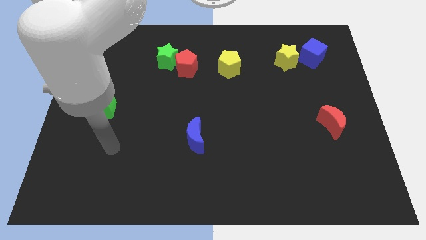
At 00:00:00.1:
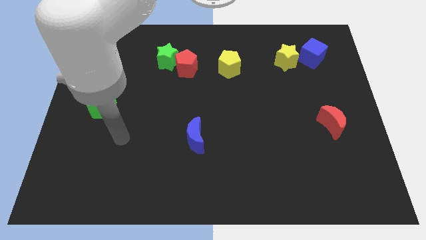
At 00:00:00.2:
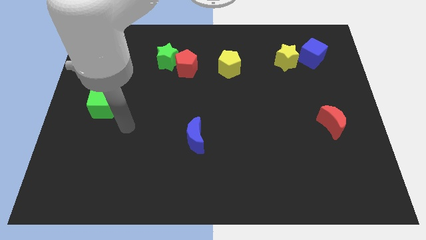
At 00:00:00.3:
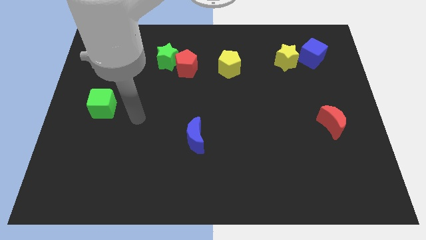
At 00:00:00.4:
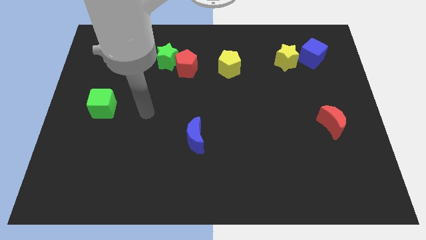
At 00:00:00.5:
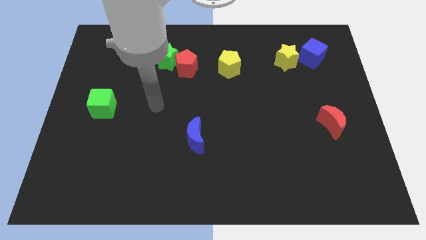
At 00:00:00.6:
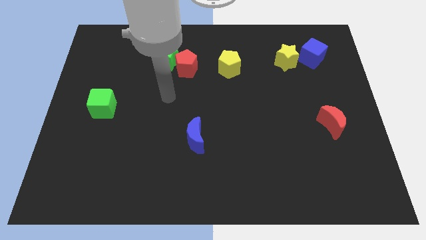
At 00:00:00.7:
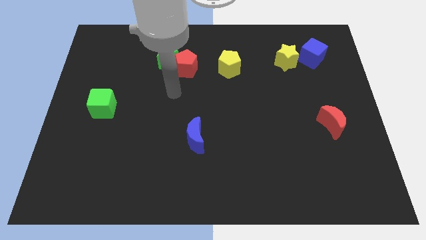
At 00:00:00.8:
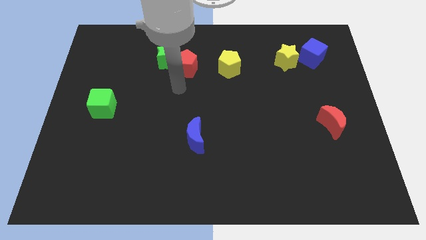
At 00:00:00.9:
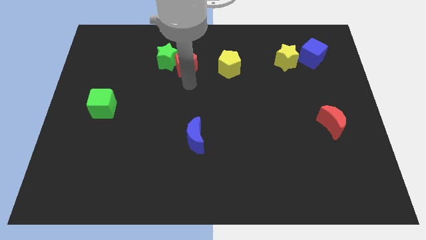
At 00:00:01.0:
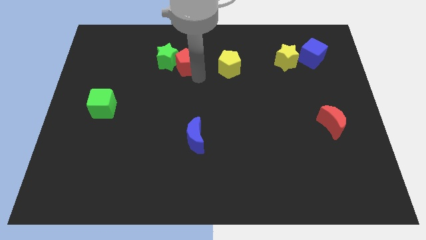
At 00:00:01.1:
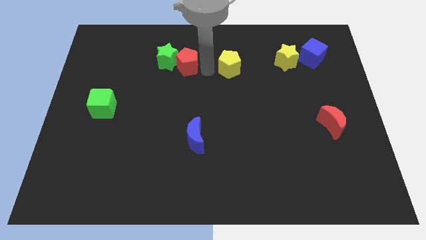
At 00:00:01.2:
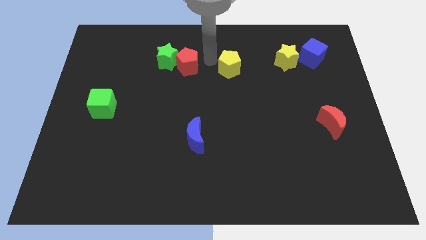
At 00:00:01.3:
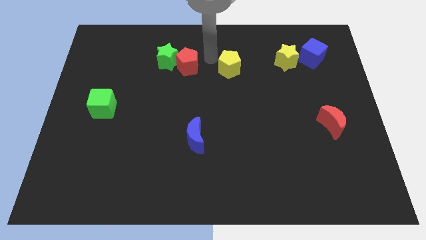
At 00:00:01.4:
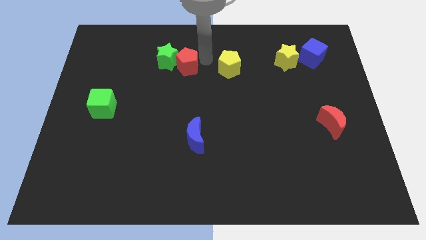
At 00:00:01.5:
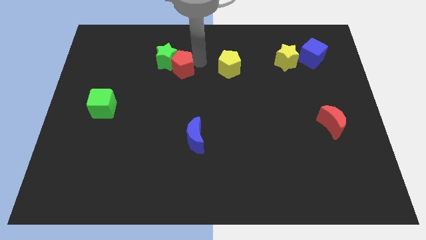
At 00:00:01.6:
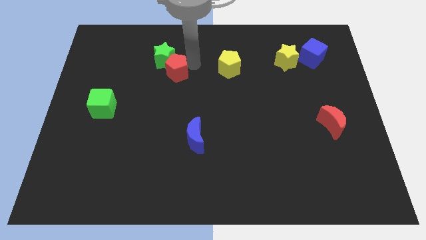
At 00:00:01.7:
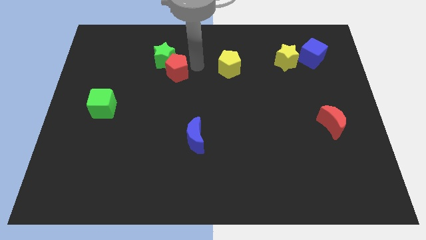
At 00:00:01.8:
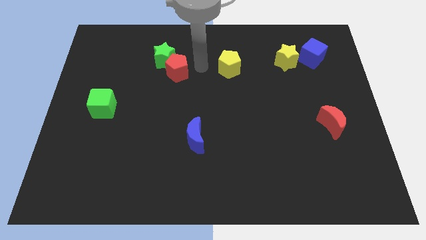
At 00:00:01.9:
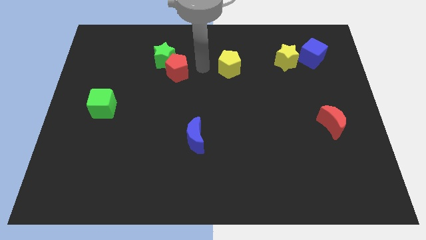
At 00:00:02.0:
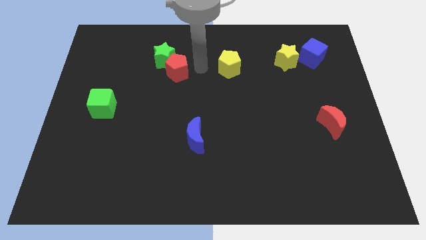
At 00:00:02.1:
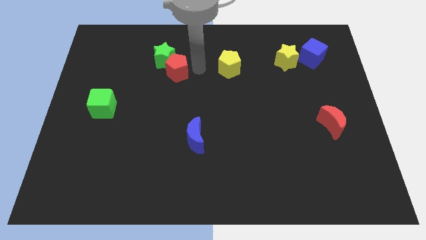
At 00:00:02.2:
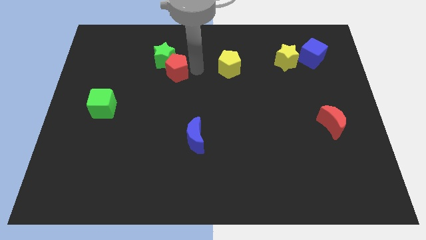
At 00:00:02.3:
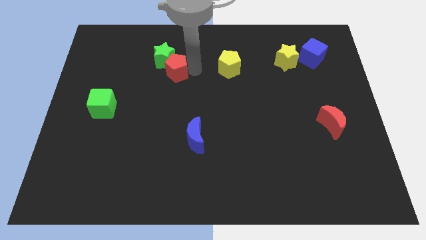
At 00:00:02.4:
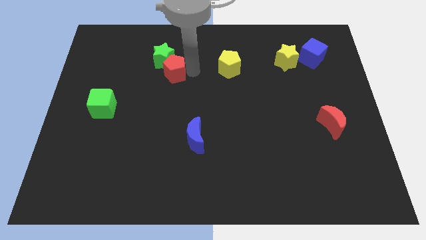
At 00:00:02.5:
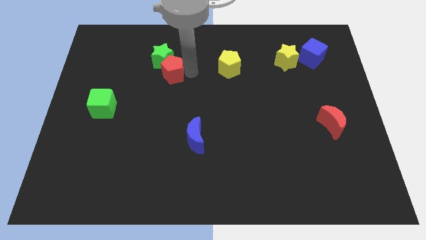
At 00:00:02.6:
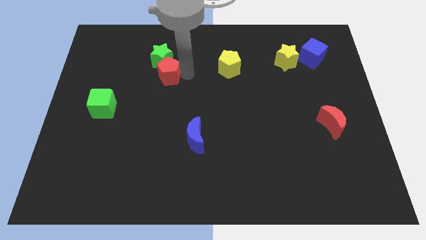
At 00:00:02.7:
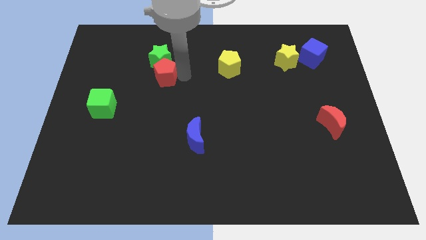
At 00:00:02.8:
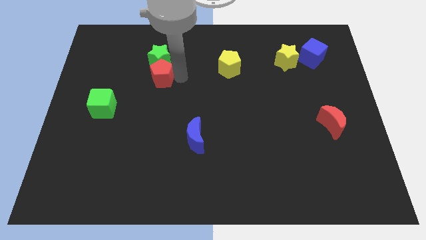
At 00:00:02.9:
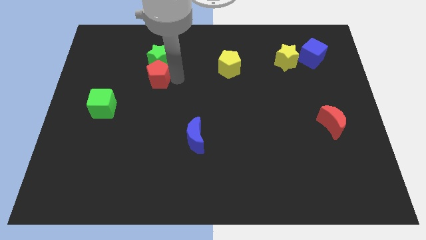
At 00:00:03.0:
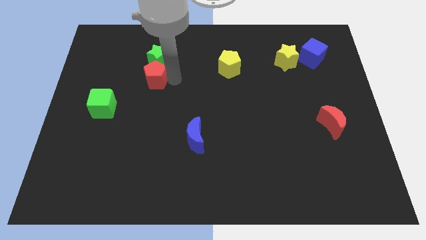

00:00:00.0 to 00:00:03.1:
slightly push the red pentagon to the left

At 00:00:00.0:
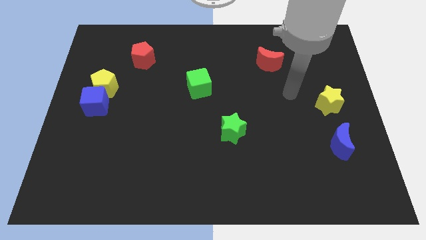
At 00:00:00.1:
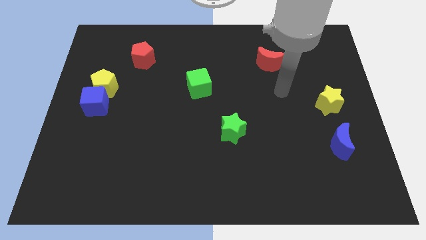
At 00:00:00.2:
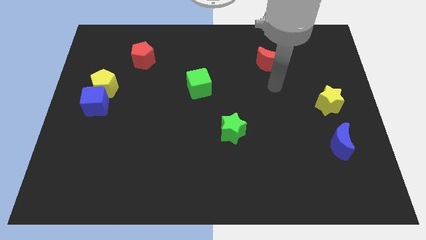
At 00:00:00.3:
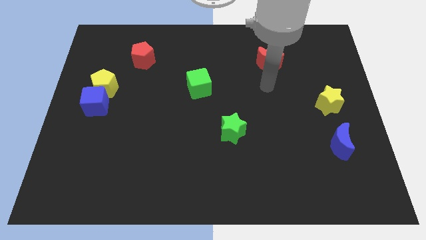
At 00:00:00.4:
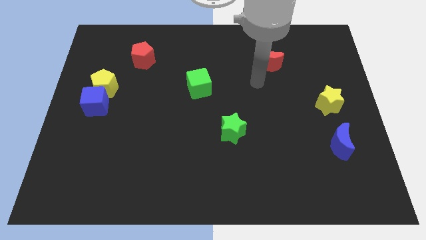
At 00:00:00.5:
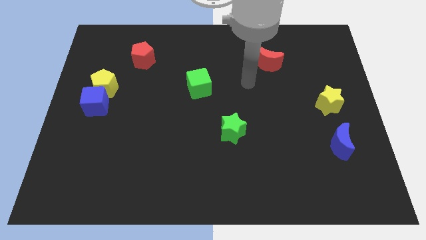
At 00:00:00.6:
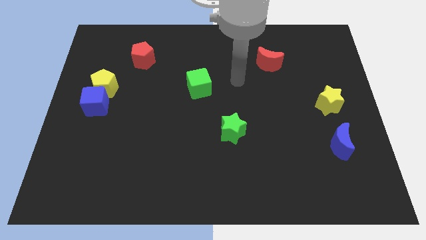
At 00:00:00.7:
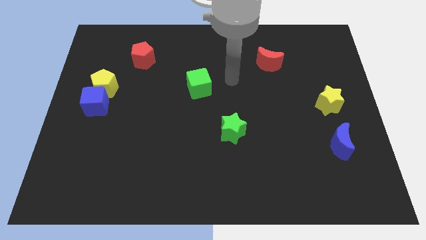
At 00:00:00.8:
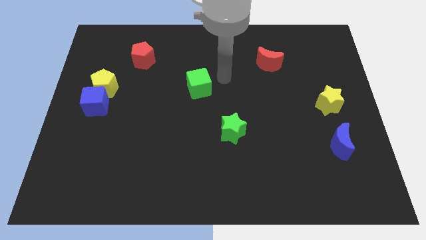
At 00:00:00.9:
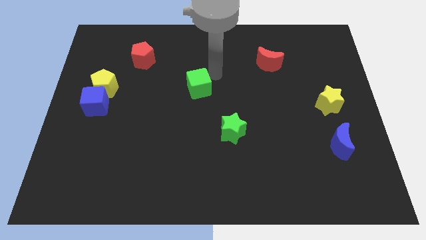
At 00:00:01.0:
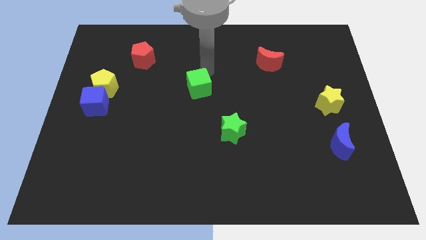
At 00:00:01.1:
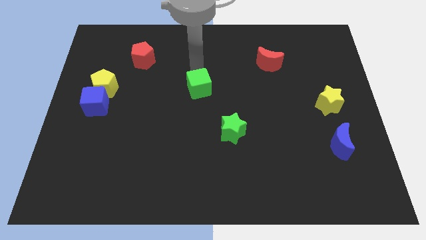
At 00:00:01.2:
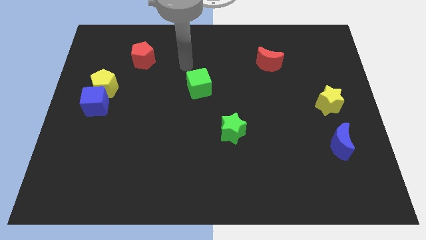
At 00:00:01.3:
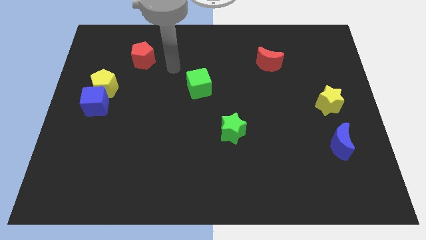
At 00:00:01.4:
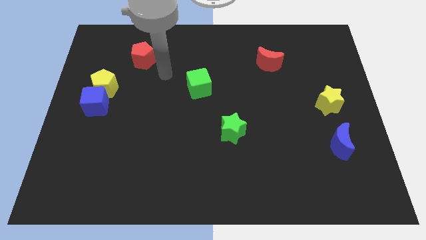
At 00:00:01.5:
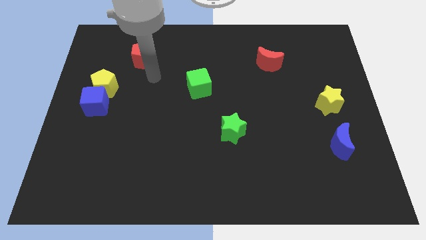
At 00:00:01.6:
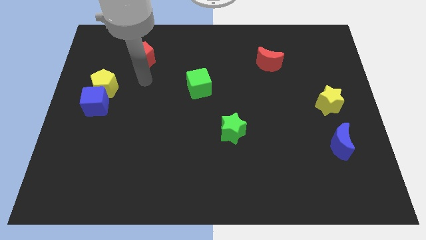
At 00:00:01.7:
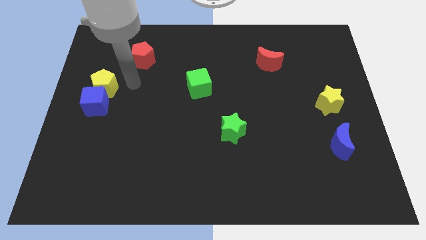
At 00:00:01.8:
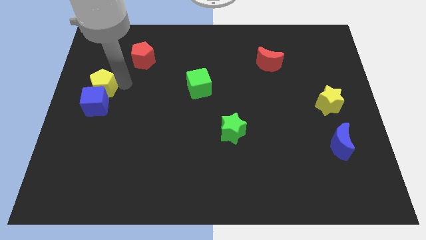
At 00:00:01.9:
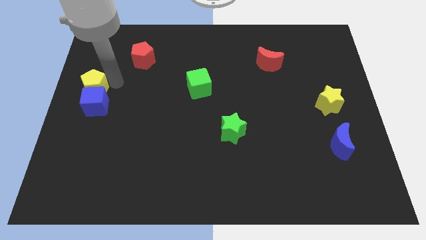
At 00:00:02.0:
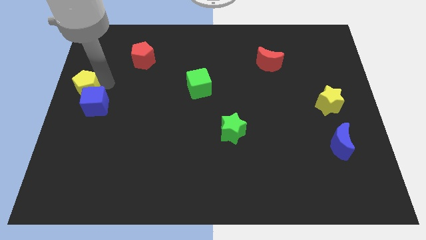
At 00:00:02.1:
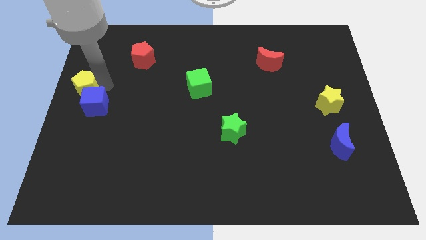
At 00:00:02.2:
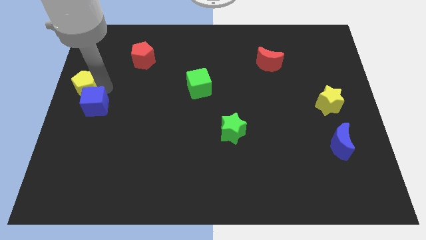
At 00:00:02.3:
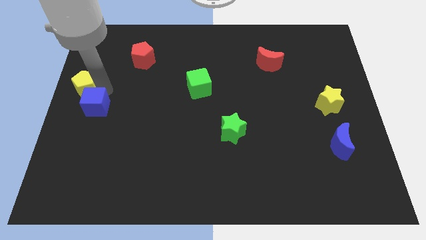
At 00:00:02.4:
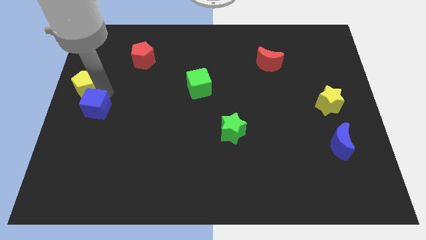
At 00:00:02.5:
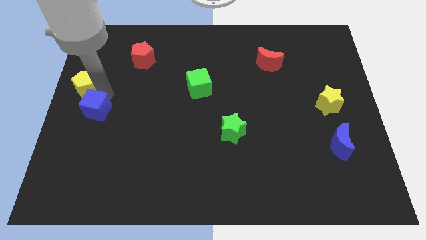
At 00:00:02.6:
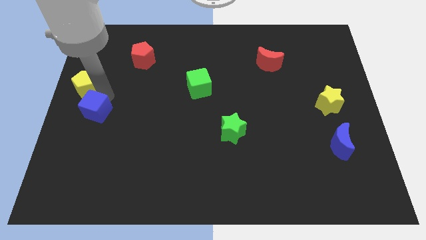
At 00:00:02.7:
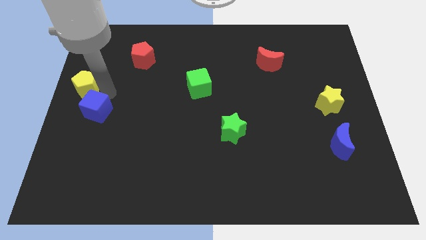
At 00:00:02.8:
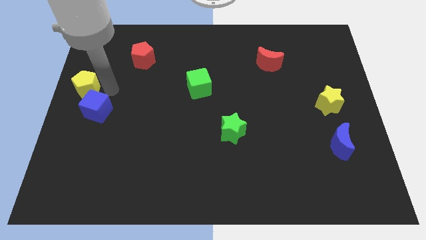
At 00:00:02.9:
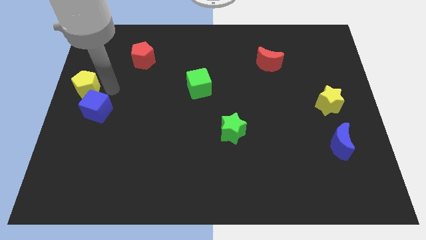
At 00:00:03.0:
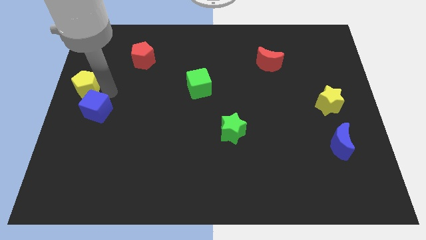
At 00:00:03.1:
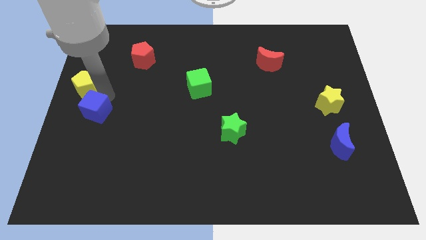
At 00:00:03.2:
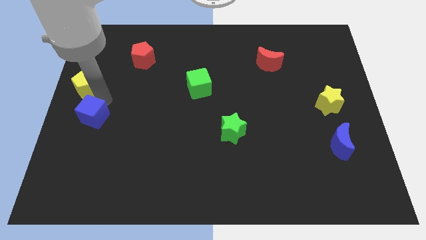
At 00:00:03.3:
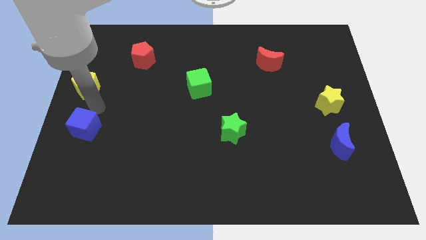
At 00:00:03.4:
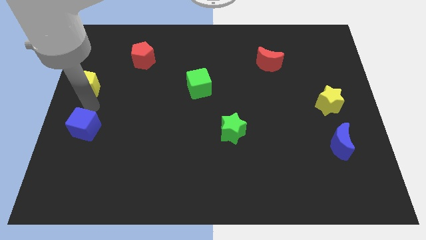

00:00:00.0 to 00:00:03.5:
slightly slide the blue cube downwards

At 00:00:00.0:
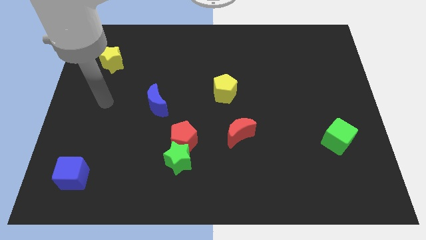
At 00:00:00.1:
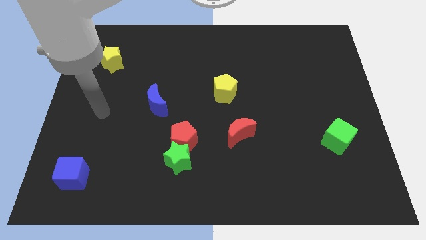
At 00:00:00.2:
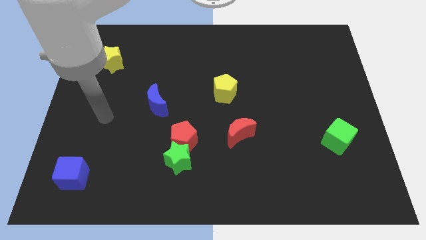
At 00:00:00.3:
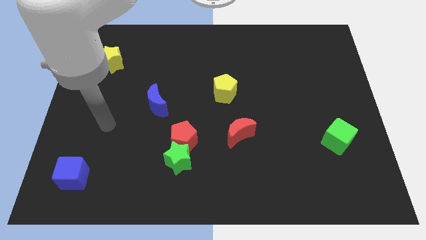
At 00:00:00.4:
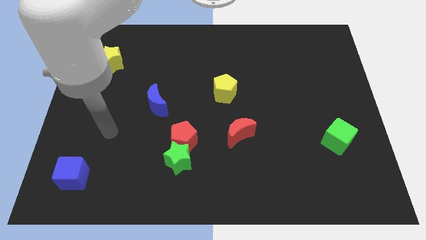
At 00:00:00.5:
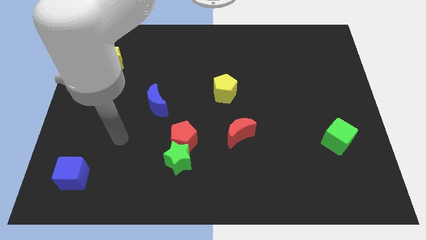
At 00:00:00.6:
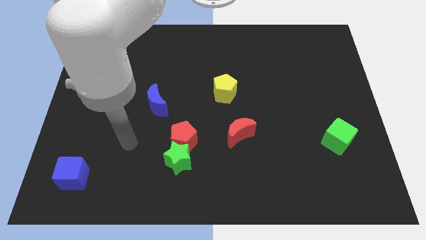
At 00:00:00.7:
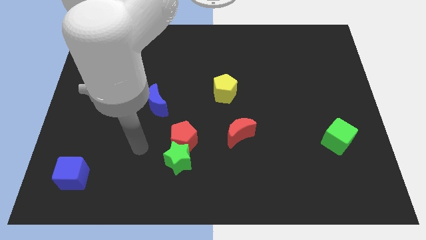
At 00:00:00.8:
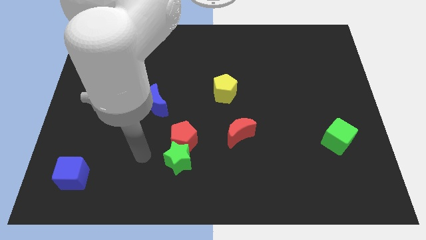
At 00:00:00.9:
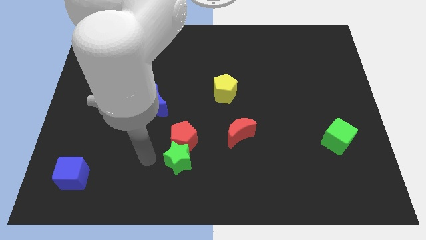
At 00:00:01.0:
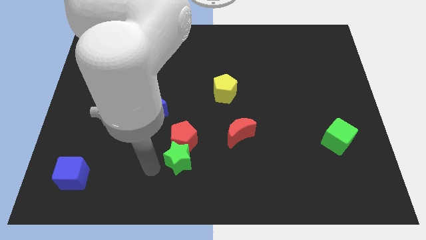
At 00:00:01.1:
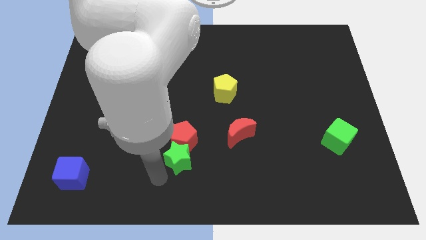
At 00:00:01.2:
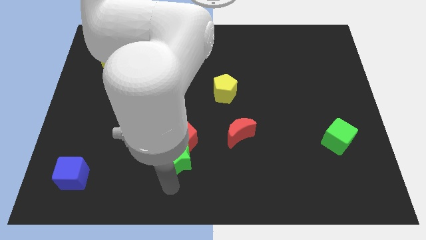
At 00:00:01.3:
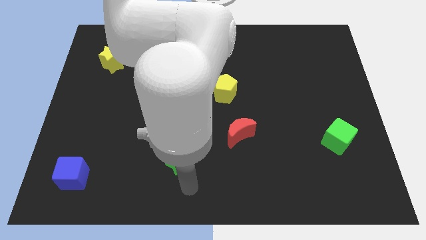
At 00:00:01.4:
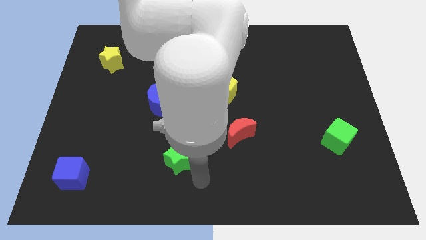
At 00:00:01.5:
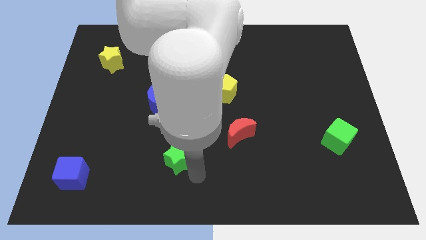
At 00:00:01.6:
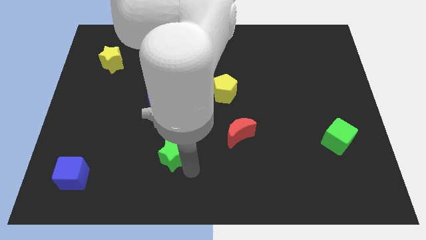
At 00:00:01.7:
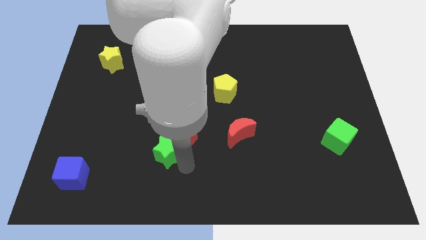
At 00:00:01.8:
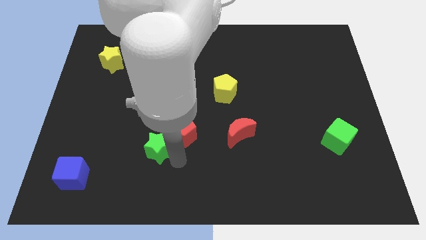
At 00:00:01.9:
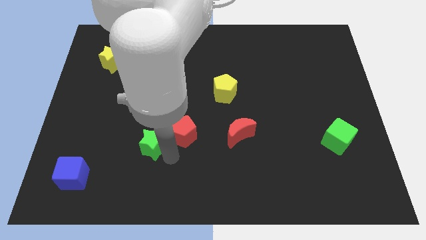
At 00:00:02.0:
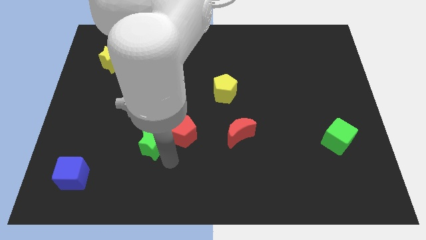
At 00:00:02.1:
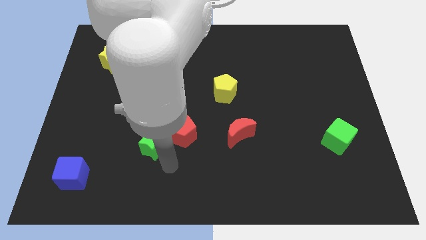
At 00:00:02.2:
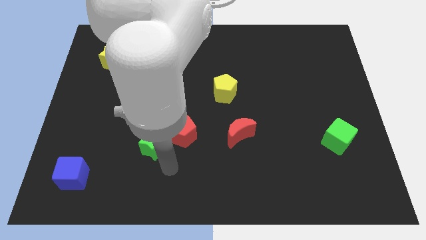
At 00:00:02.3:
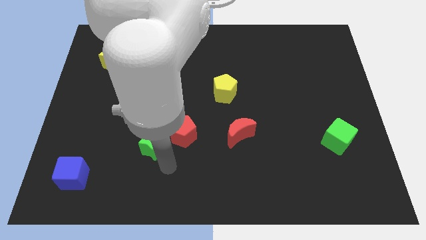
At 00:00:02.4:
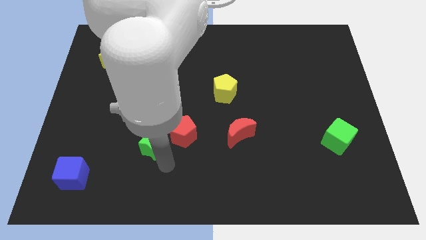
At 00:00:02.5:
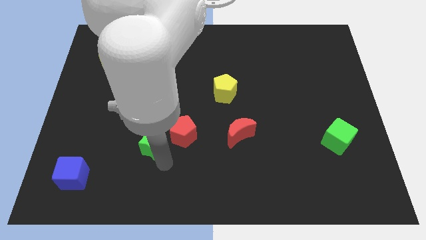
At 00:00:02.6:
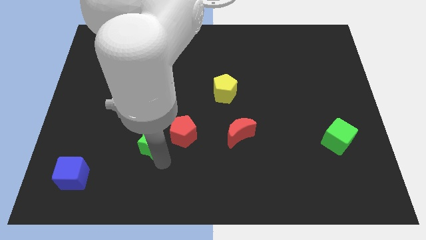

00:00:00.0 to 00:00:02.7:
push the green star up and left diagonally slightly
